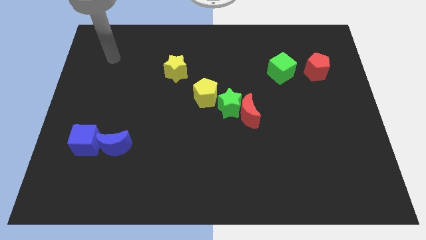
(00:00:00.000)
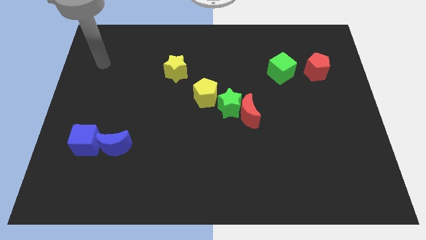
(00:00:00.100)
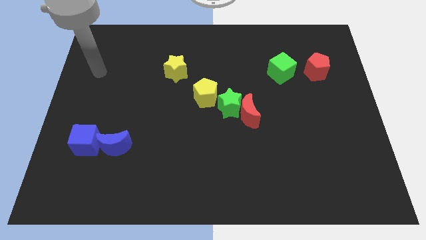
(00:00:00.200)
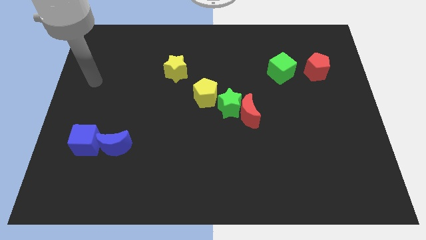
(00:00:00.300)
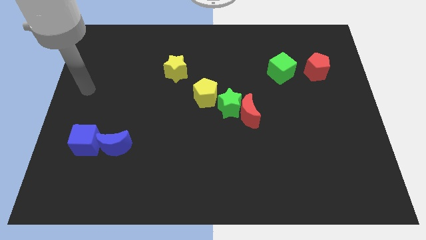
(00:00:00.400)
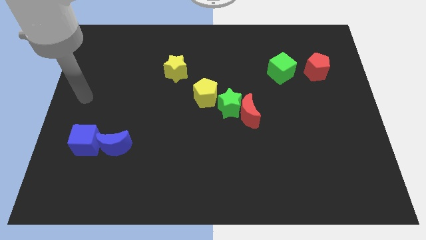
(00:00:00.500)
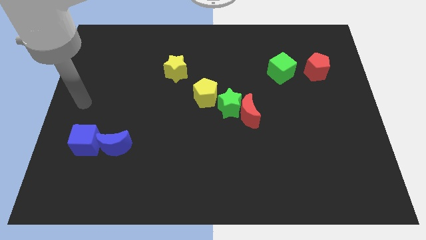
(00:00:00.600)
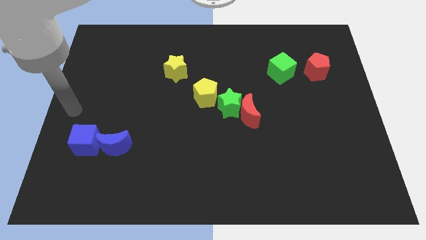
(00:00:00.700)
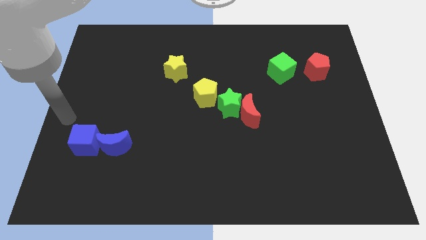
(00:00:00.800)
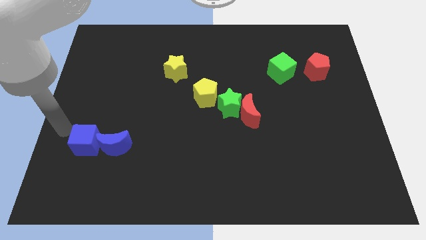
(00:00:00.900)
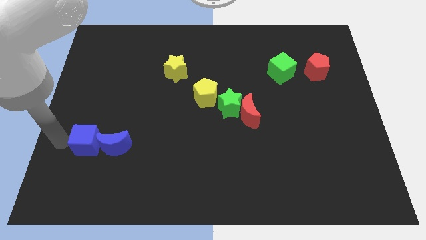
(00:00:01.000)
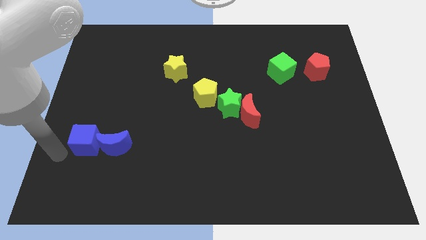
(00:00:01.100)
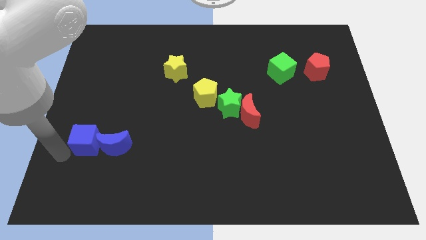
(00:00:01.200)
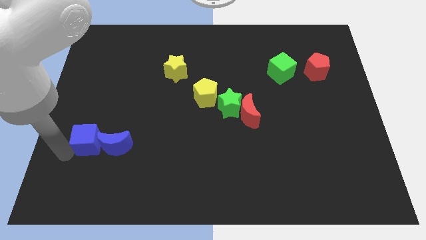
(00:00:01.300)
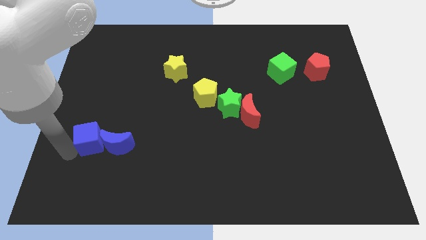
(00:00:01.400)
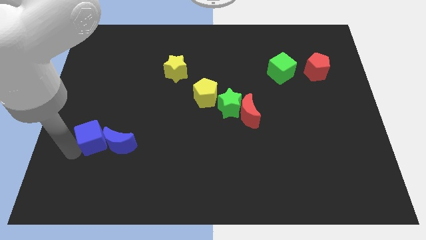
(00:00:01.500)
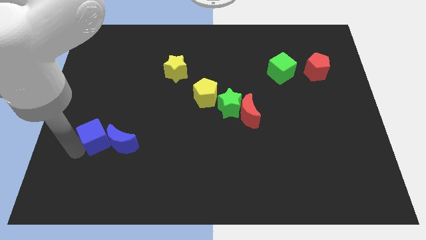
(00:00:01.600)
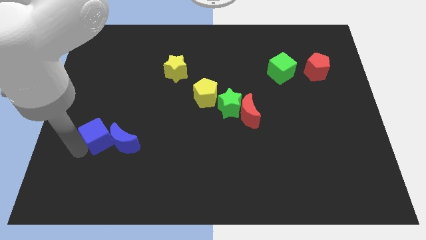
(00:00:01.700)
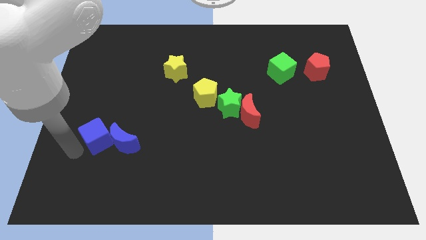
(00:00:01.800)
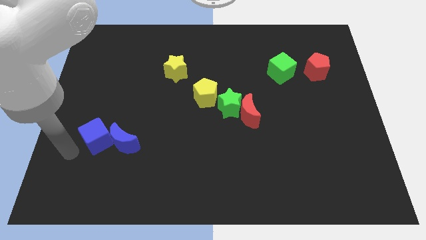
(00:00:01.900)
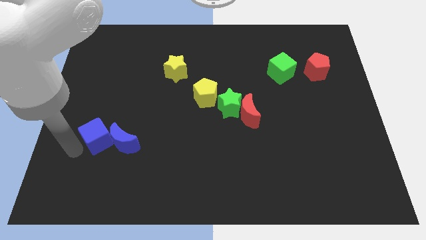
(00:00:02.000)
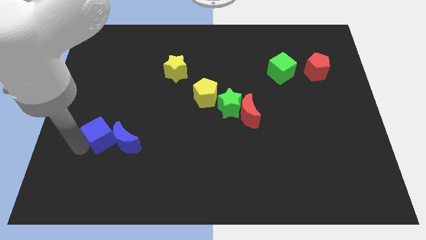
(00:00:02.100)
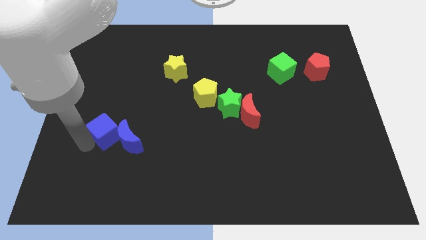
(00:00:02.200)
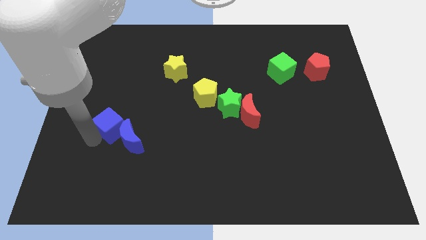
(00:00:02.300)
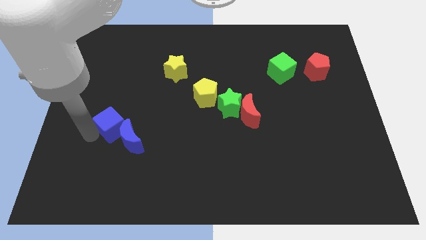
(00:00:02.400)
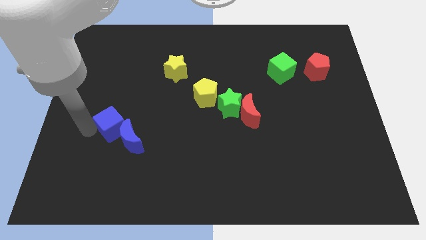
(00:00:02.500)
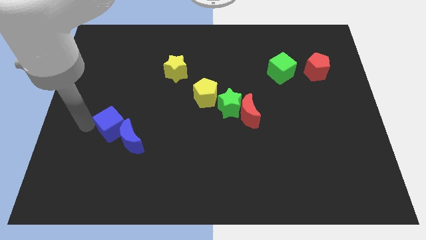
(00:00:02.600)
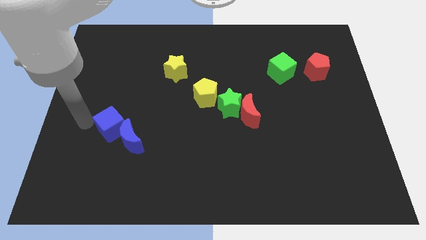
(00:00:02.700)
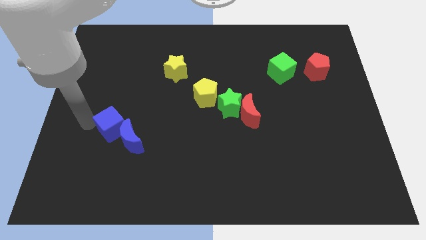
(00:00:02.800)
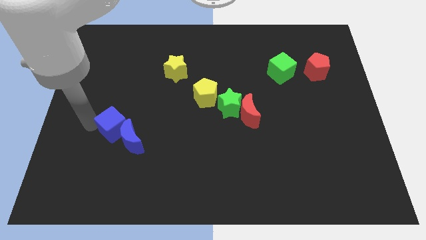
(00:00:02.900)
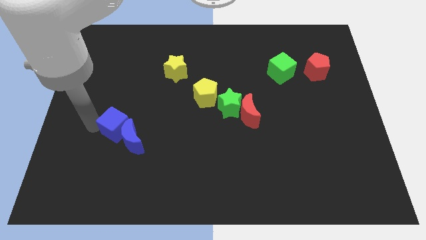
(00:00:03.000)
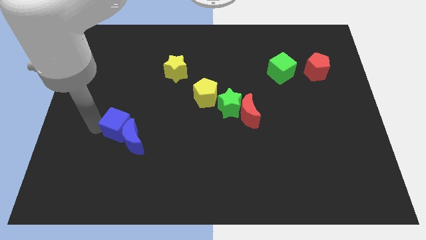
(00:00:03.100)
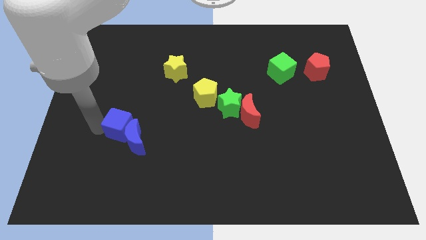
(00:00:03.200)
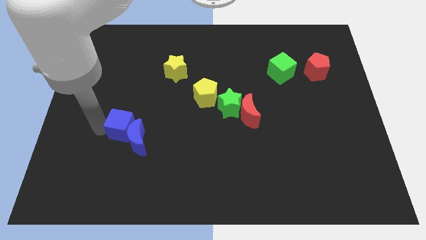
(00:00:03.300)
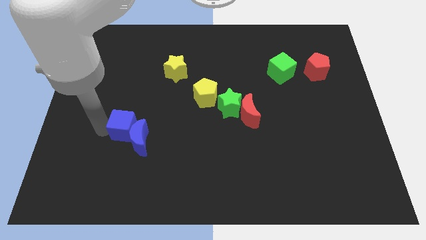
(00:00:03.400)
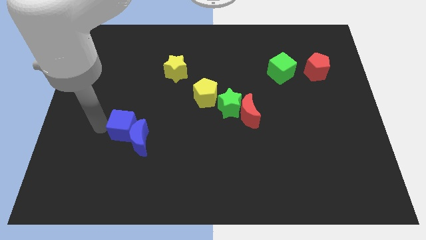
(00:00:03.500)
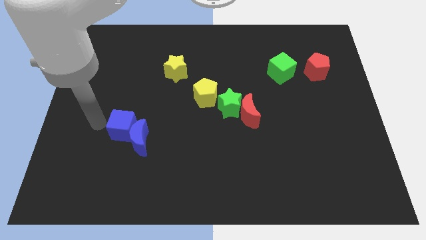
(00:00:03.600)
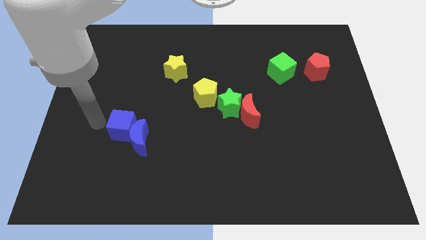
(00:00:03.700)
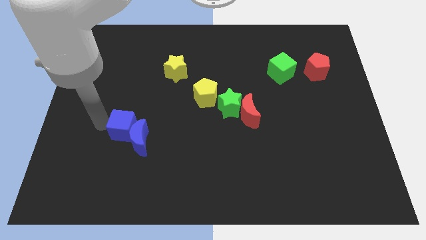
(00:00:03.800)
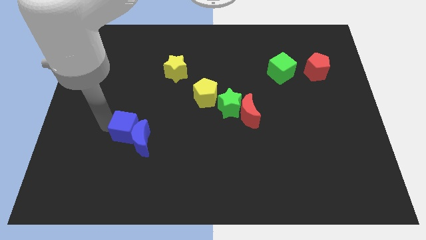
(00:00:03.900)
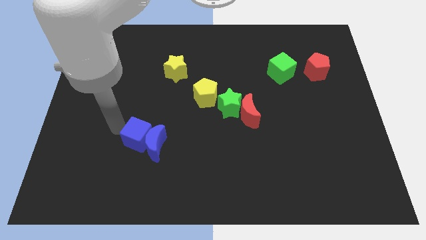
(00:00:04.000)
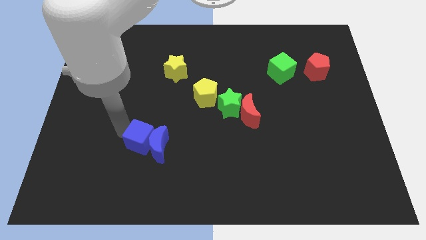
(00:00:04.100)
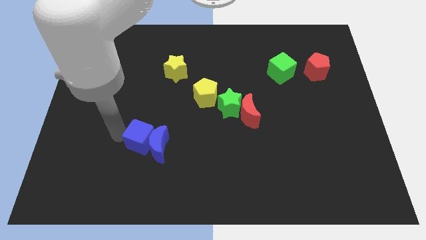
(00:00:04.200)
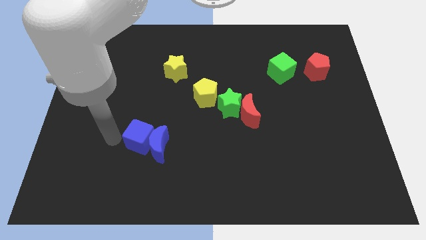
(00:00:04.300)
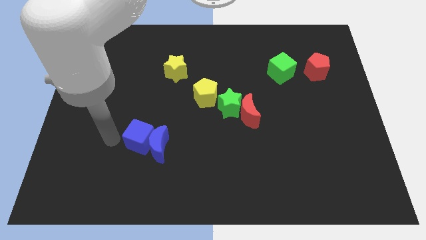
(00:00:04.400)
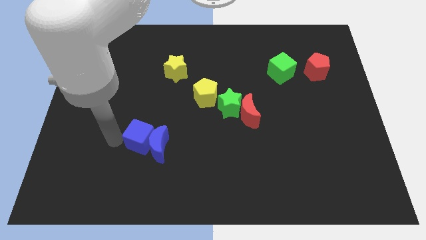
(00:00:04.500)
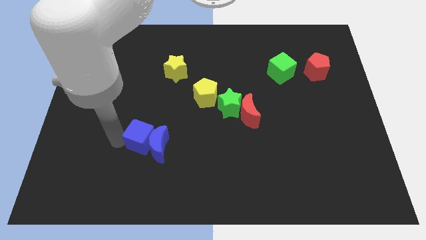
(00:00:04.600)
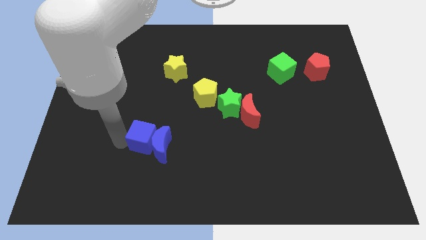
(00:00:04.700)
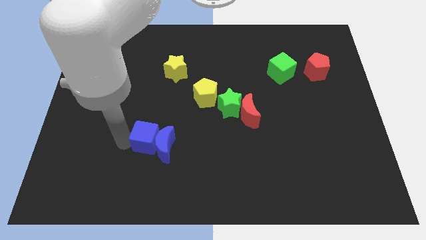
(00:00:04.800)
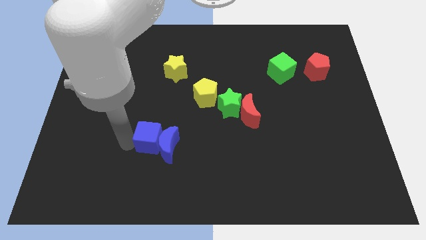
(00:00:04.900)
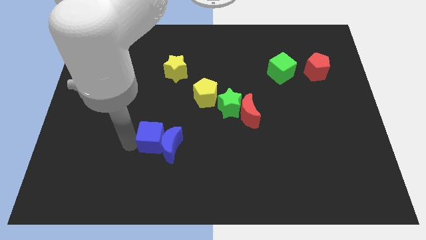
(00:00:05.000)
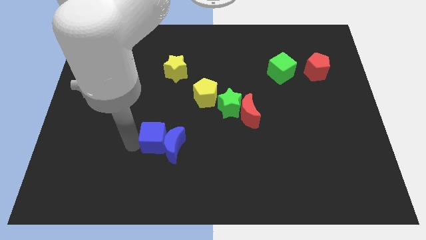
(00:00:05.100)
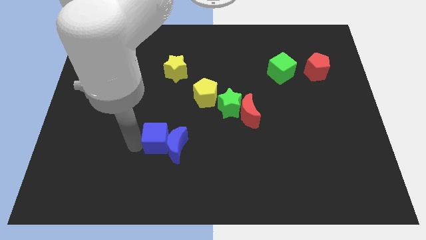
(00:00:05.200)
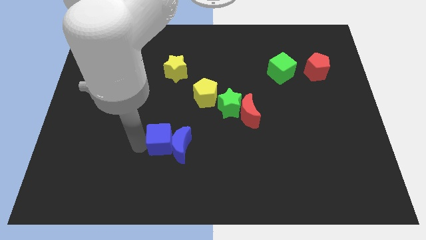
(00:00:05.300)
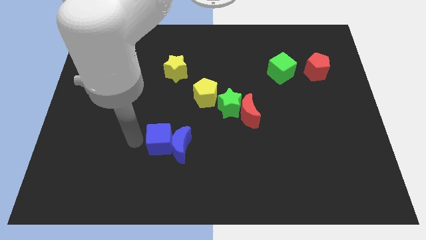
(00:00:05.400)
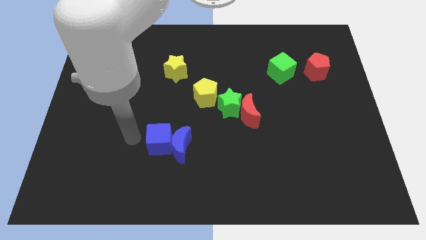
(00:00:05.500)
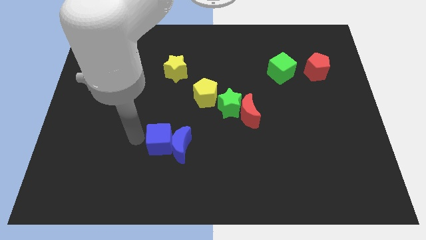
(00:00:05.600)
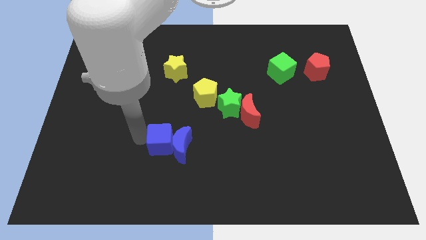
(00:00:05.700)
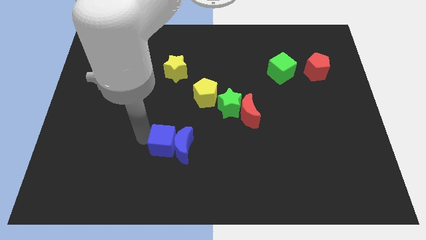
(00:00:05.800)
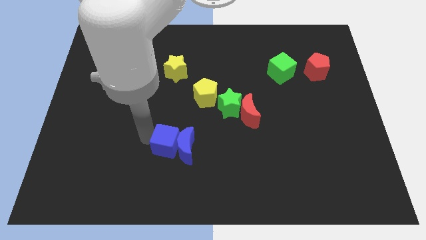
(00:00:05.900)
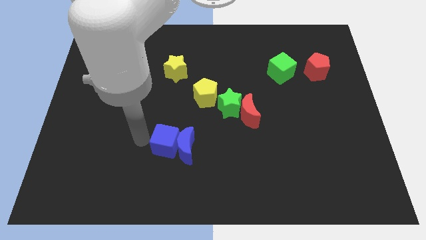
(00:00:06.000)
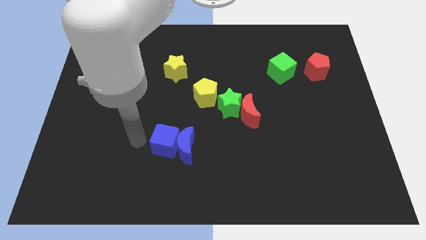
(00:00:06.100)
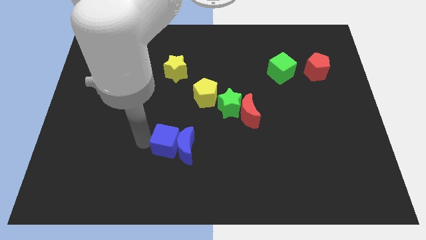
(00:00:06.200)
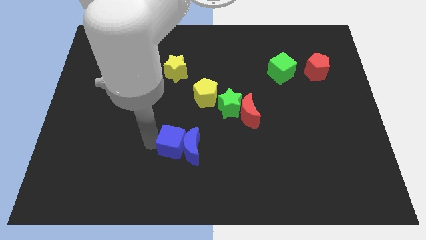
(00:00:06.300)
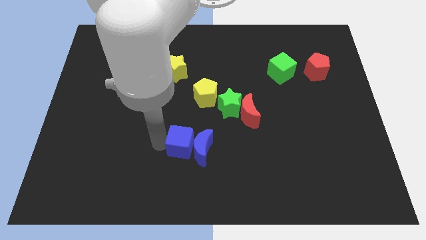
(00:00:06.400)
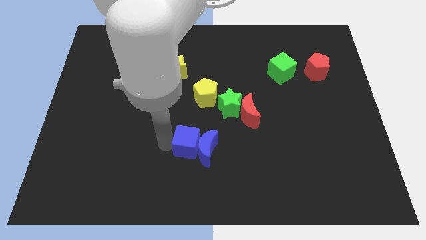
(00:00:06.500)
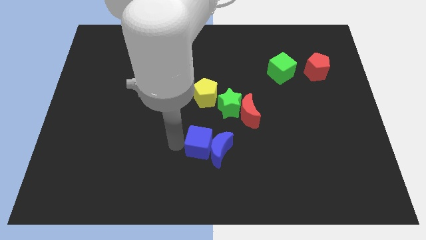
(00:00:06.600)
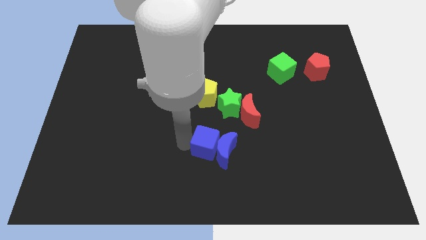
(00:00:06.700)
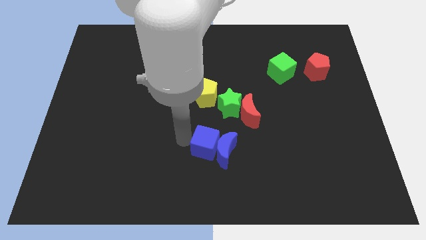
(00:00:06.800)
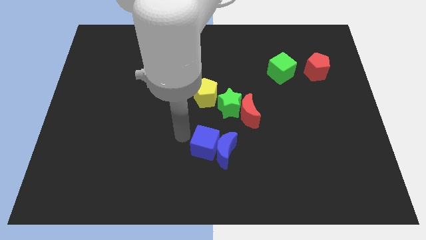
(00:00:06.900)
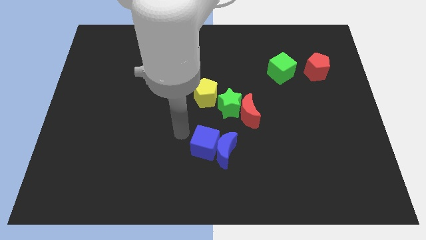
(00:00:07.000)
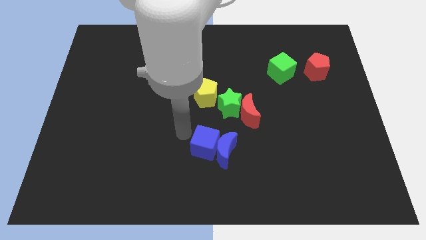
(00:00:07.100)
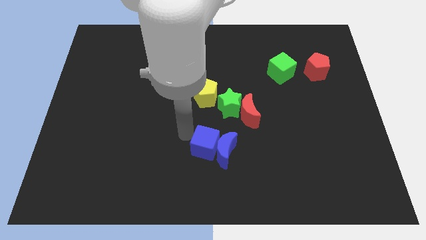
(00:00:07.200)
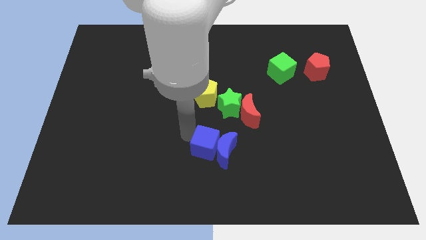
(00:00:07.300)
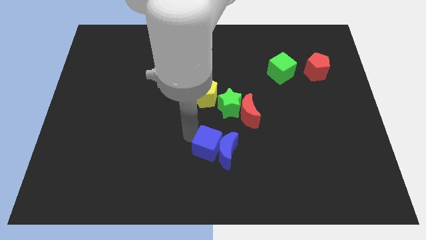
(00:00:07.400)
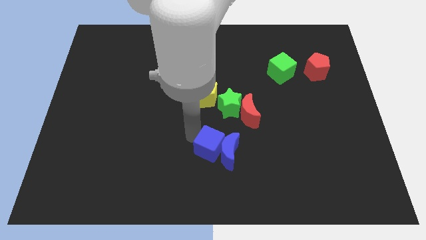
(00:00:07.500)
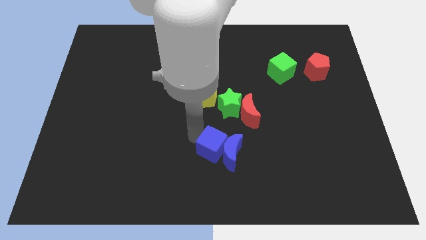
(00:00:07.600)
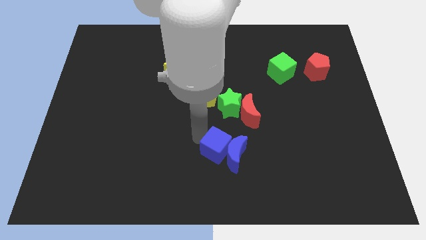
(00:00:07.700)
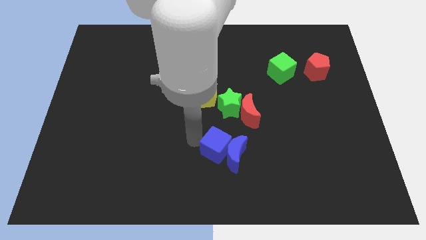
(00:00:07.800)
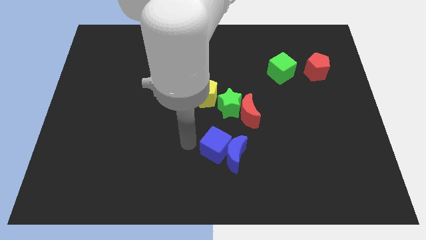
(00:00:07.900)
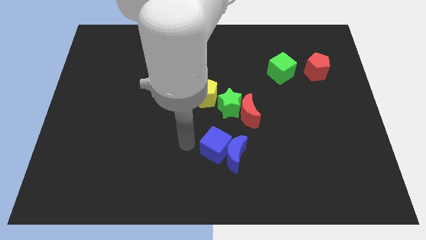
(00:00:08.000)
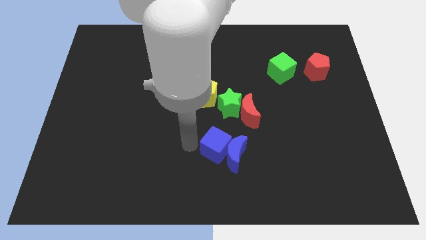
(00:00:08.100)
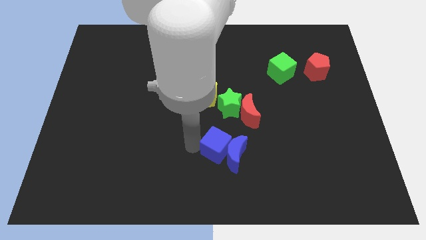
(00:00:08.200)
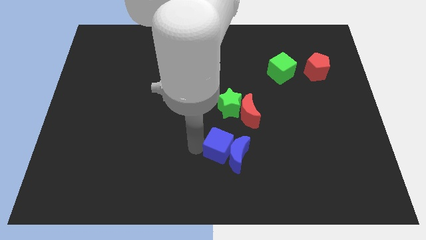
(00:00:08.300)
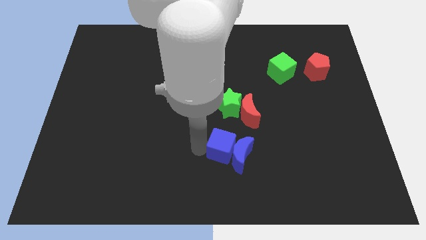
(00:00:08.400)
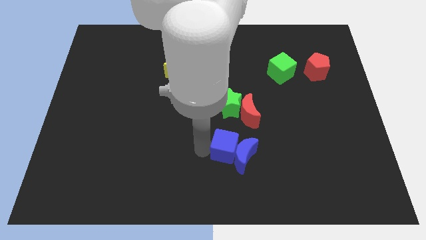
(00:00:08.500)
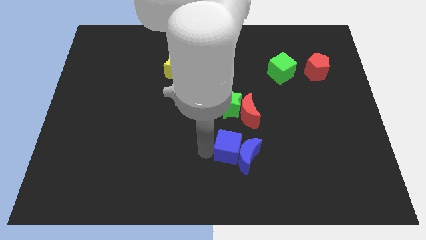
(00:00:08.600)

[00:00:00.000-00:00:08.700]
push the blue cube to the bottom side of the red moon
